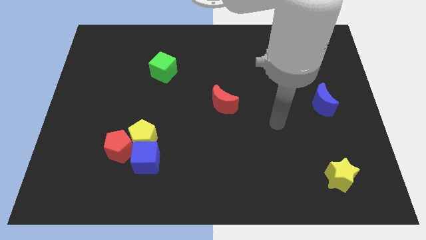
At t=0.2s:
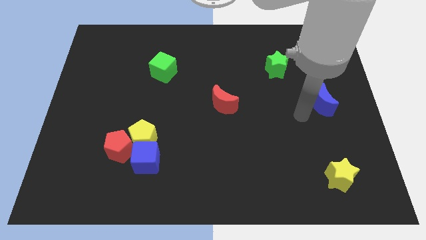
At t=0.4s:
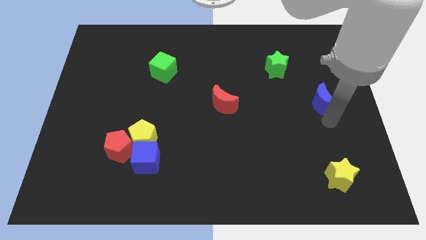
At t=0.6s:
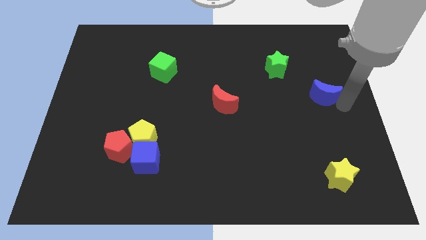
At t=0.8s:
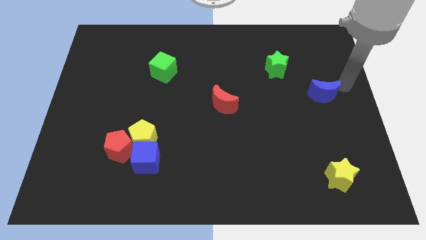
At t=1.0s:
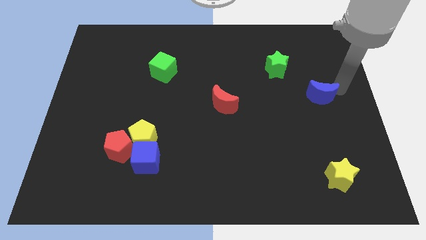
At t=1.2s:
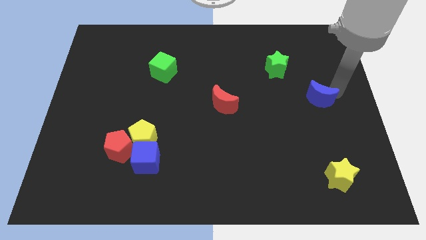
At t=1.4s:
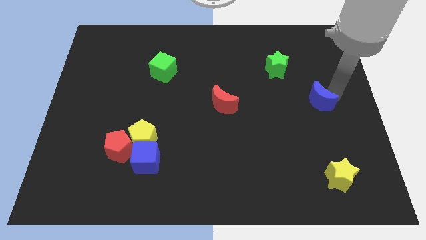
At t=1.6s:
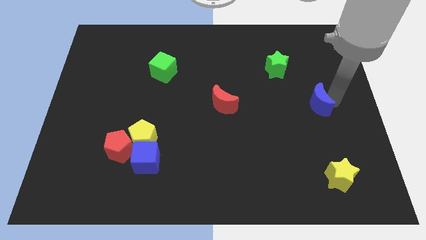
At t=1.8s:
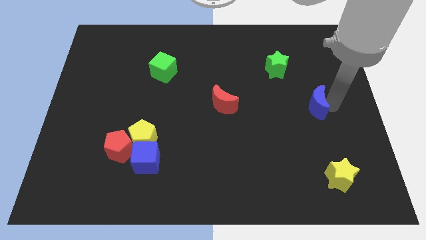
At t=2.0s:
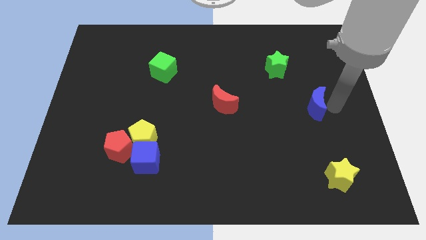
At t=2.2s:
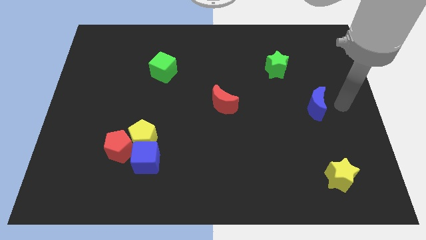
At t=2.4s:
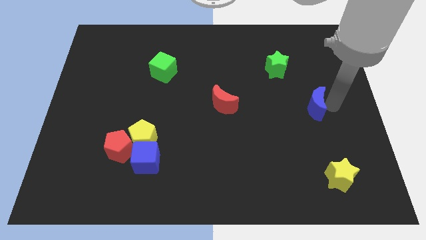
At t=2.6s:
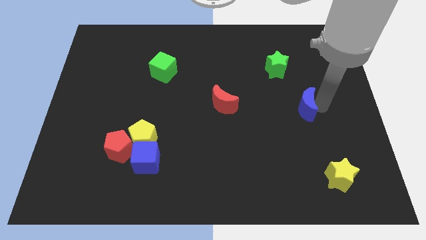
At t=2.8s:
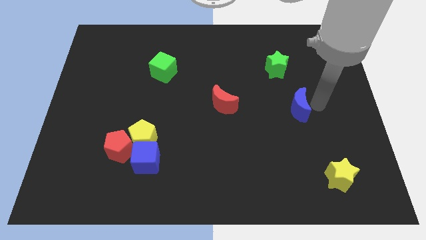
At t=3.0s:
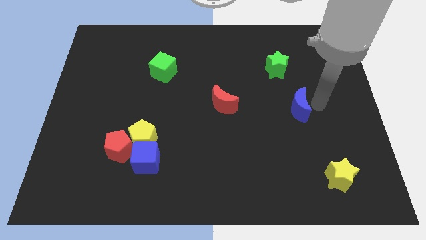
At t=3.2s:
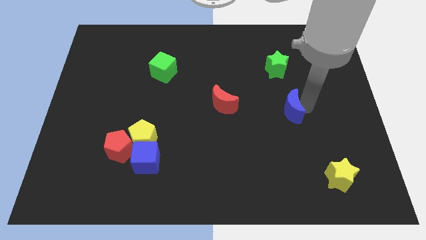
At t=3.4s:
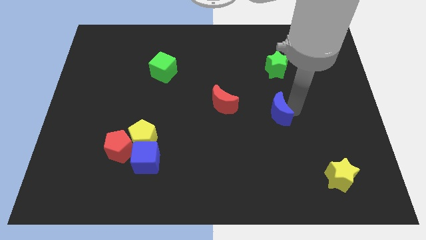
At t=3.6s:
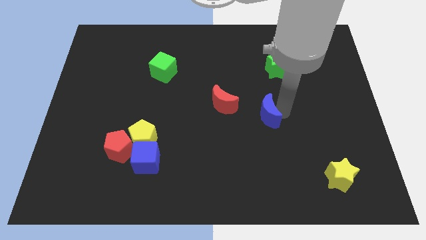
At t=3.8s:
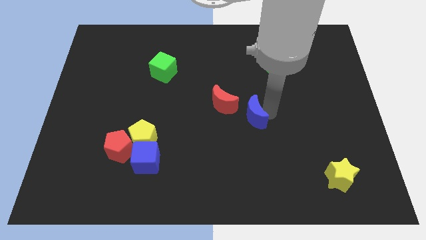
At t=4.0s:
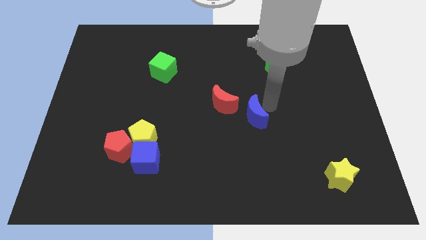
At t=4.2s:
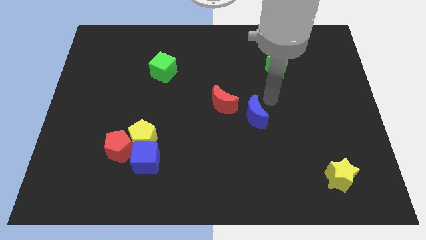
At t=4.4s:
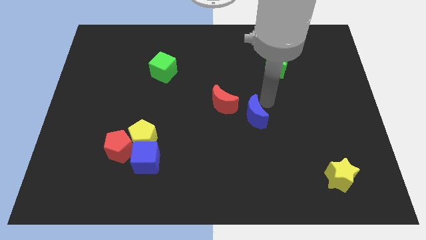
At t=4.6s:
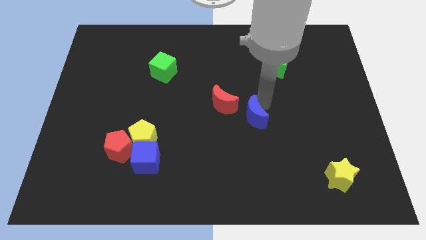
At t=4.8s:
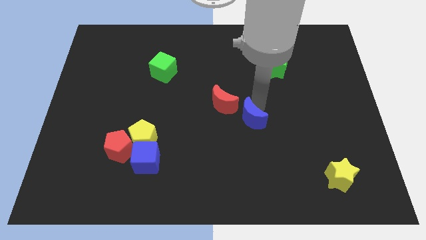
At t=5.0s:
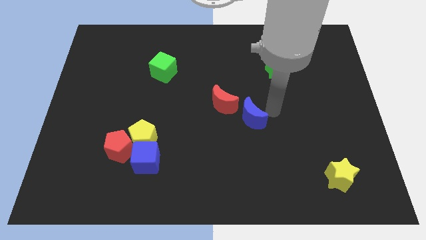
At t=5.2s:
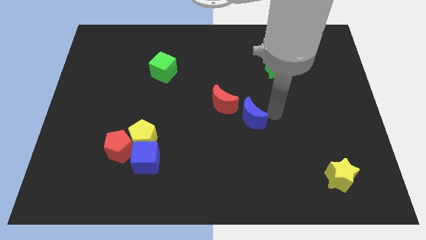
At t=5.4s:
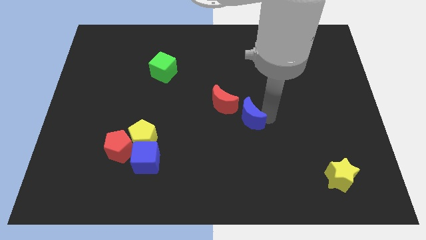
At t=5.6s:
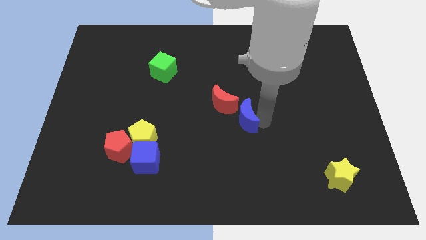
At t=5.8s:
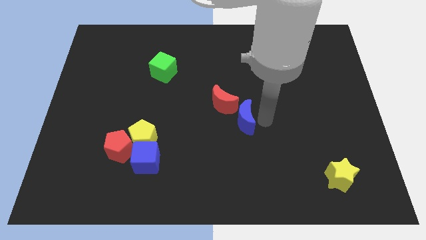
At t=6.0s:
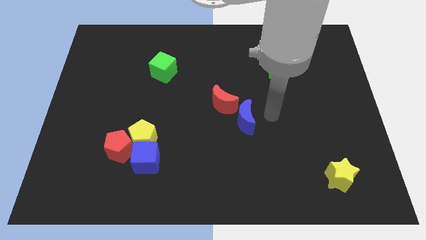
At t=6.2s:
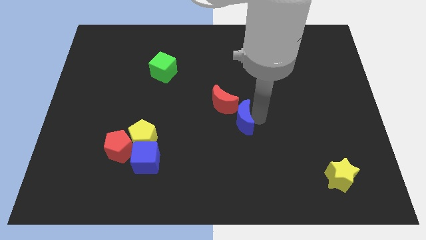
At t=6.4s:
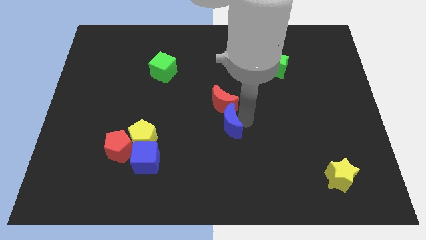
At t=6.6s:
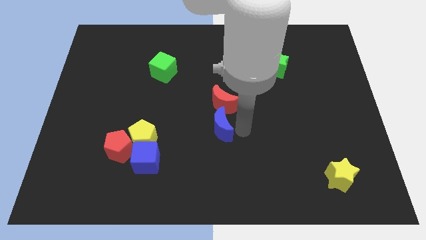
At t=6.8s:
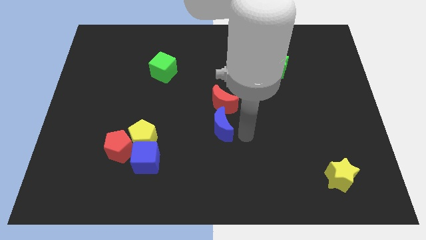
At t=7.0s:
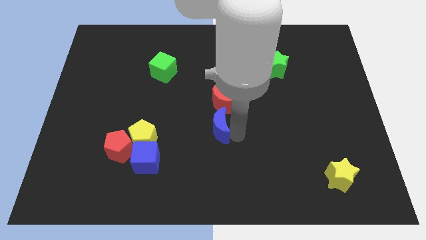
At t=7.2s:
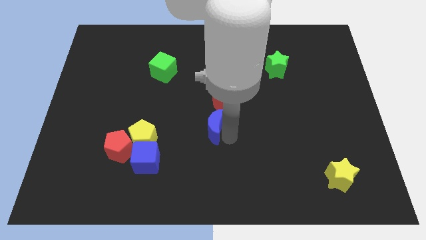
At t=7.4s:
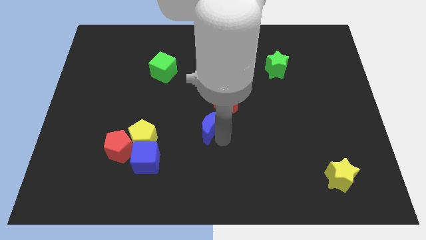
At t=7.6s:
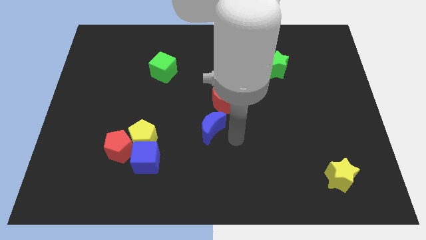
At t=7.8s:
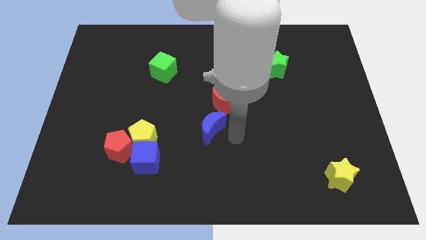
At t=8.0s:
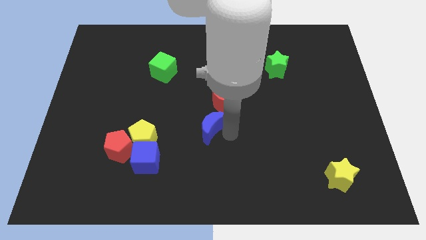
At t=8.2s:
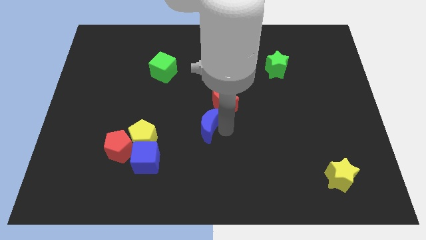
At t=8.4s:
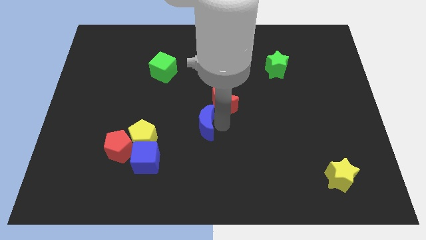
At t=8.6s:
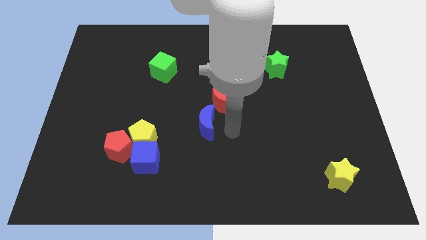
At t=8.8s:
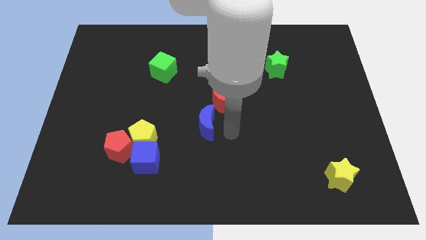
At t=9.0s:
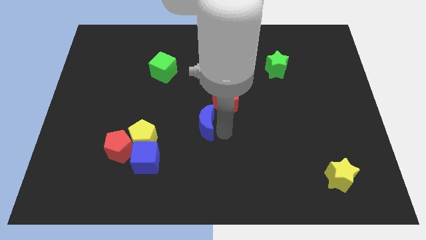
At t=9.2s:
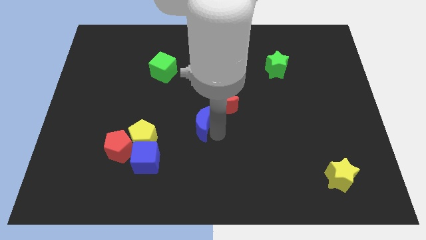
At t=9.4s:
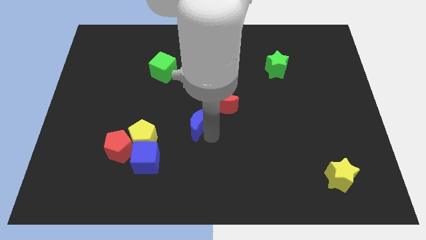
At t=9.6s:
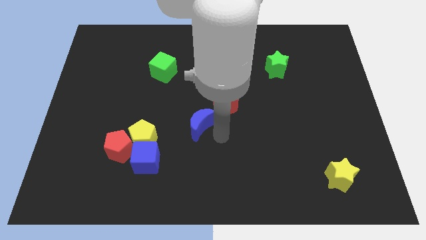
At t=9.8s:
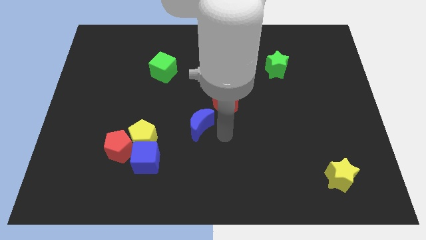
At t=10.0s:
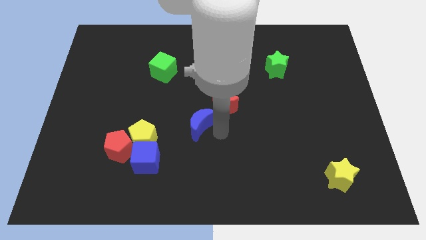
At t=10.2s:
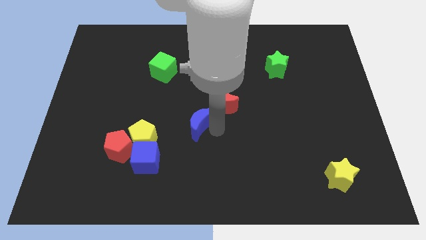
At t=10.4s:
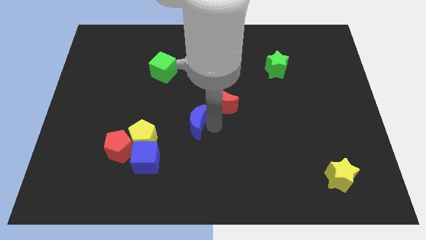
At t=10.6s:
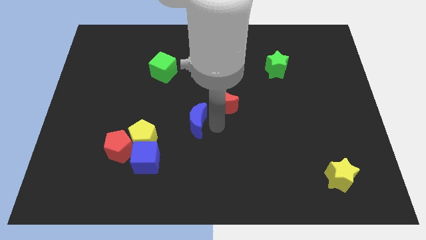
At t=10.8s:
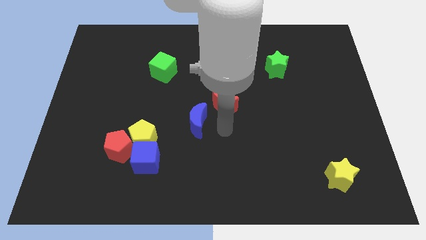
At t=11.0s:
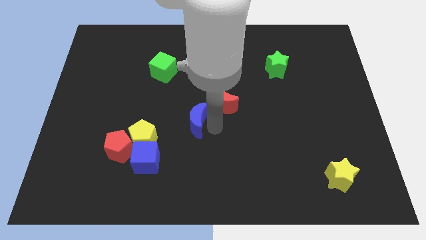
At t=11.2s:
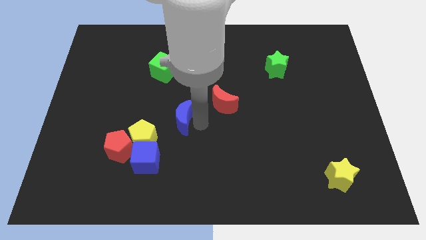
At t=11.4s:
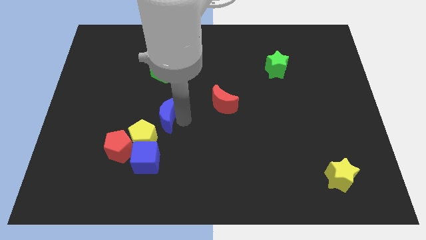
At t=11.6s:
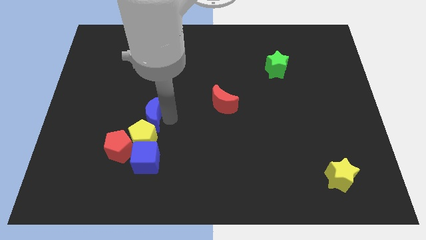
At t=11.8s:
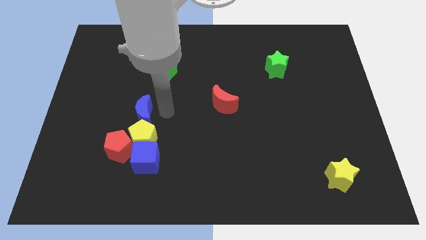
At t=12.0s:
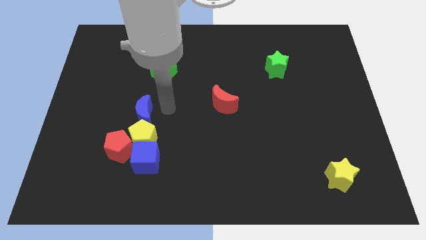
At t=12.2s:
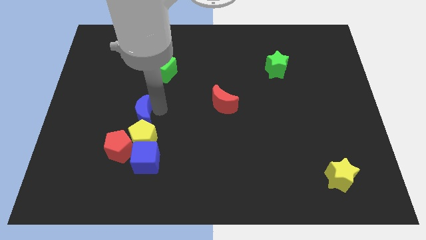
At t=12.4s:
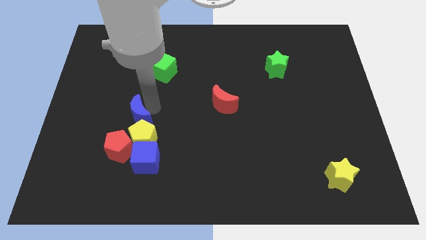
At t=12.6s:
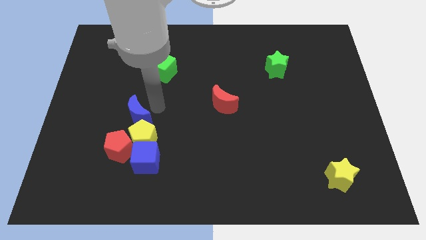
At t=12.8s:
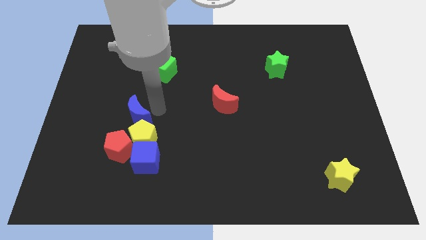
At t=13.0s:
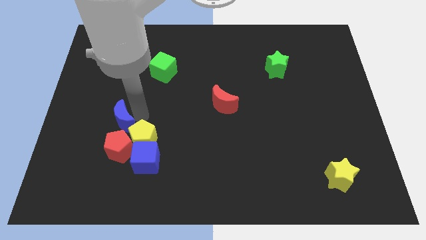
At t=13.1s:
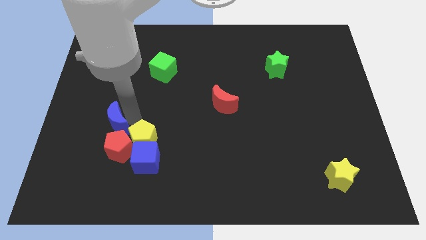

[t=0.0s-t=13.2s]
slide the blue moon to the top left side of the red pentagon

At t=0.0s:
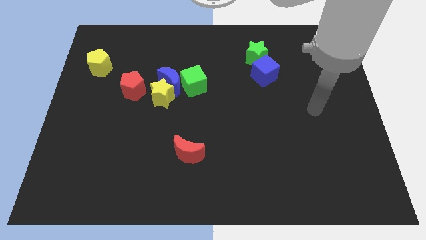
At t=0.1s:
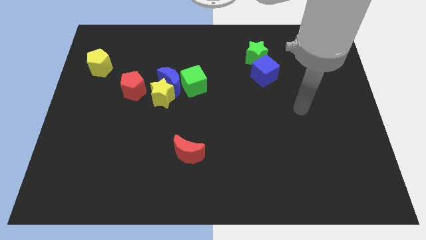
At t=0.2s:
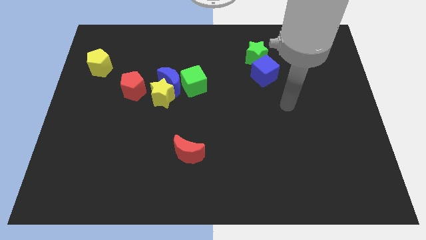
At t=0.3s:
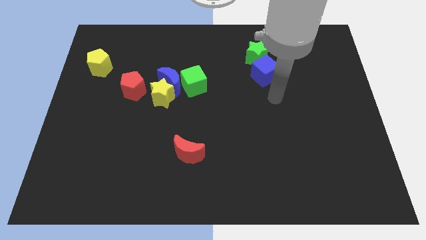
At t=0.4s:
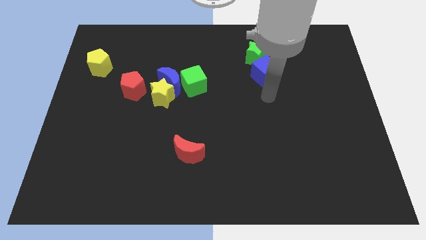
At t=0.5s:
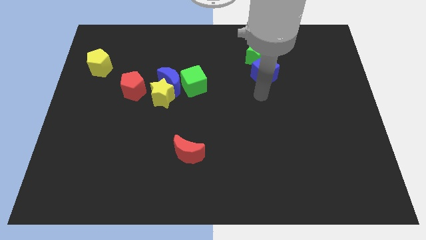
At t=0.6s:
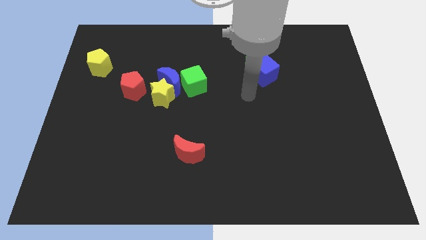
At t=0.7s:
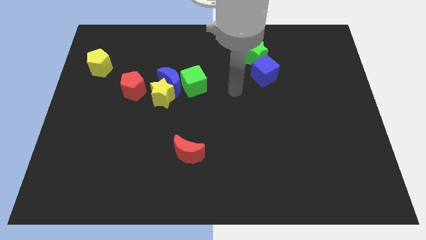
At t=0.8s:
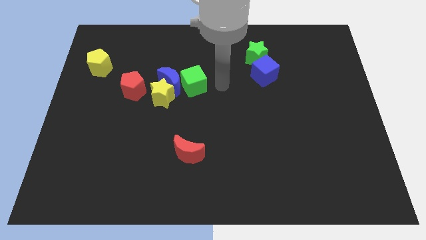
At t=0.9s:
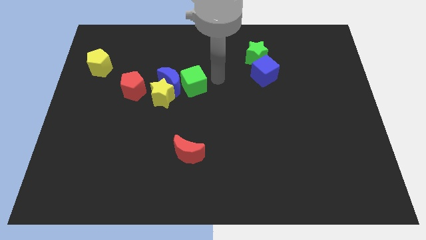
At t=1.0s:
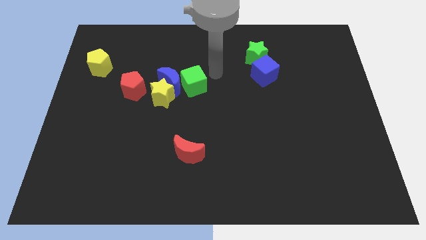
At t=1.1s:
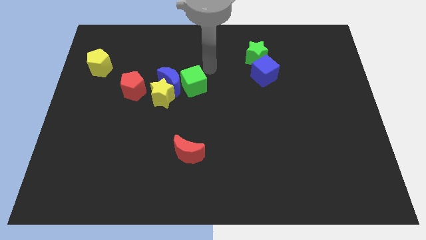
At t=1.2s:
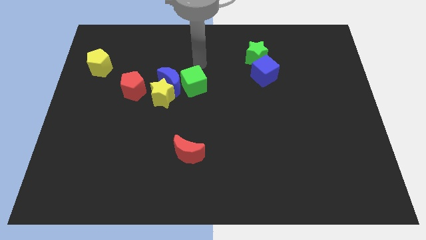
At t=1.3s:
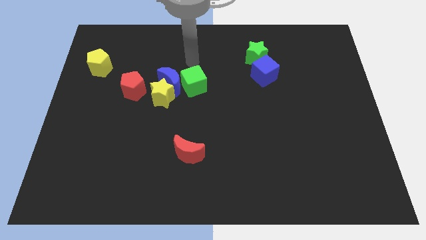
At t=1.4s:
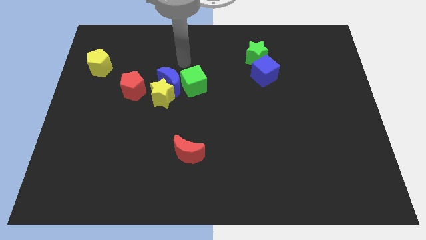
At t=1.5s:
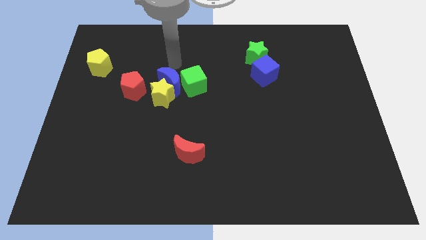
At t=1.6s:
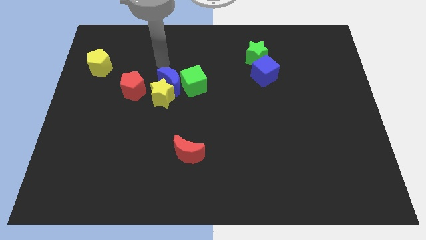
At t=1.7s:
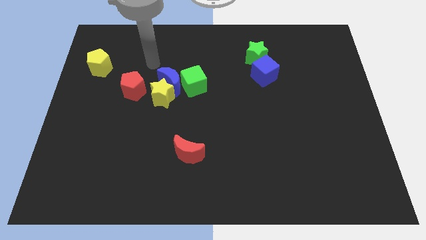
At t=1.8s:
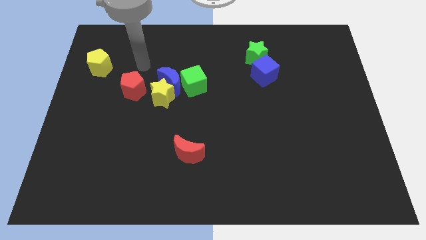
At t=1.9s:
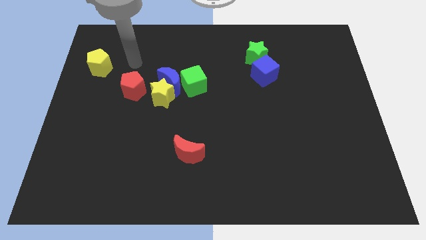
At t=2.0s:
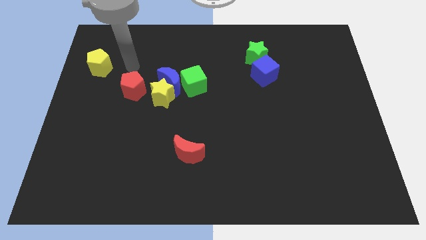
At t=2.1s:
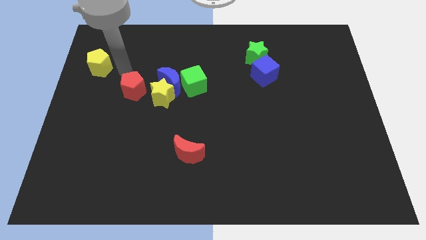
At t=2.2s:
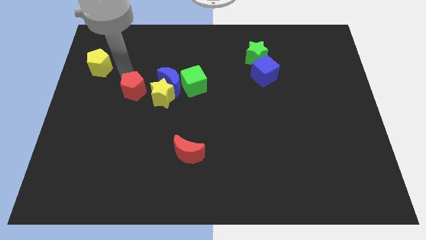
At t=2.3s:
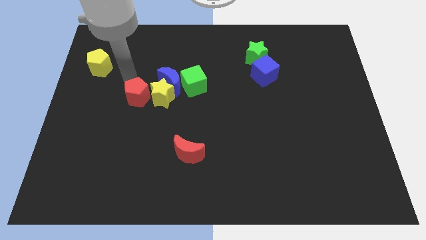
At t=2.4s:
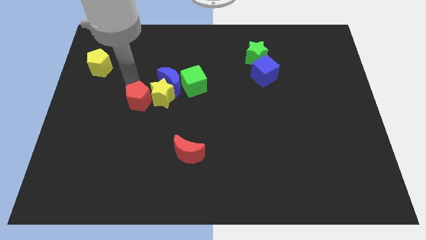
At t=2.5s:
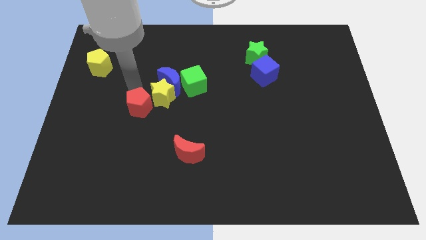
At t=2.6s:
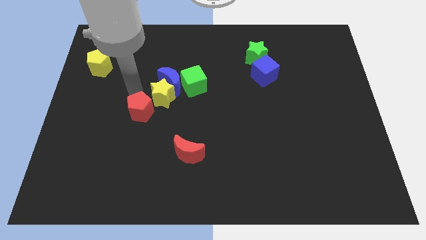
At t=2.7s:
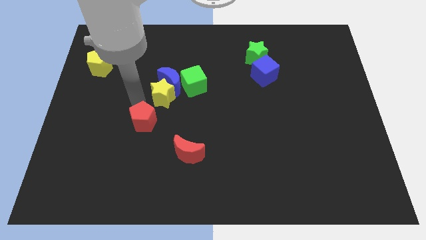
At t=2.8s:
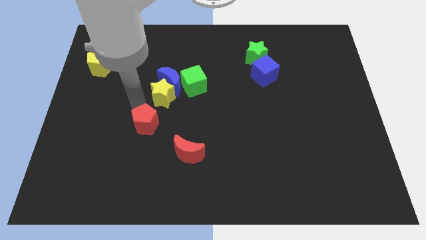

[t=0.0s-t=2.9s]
push the red pentagon to the top left side of the red moon
